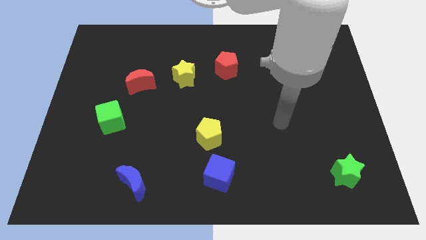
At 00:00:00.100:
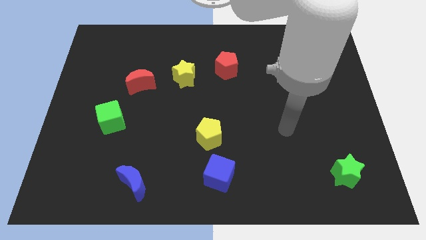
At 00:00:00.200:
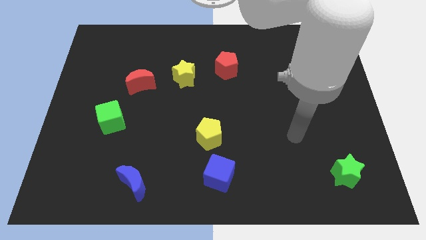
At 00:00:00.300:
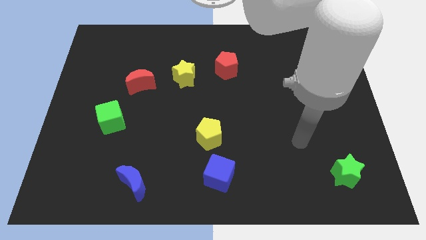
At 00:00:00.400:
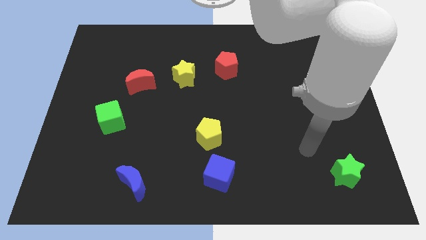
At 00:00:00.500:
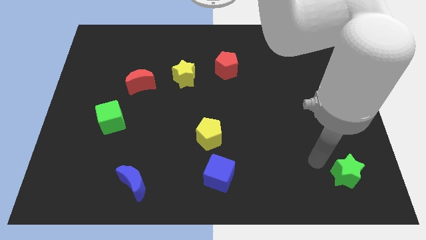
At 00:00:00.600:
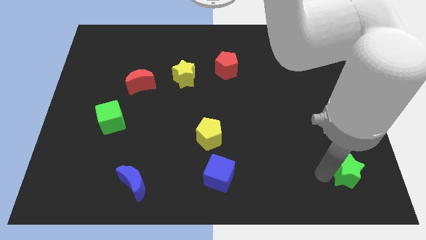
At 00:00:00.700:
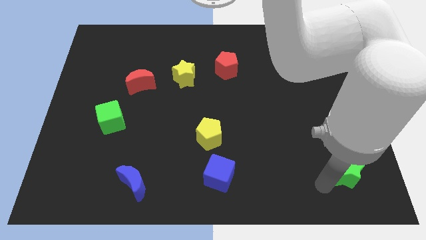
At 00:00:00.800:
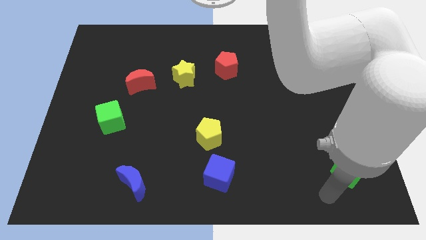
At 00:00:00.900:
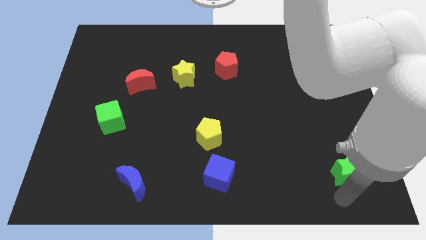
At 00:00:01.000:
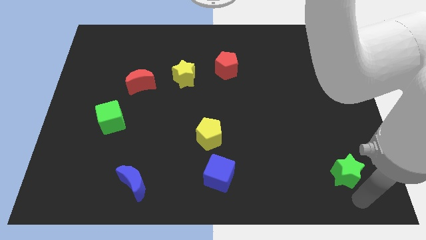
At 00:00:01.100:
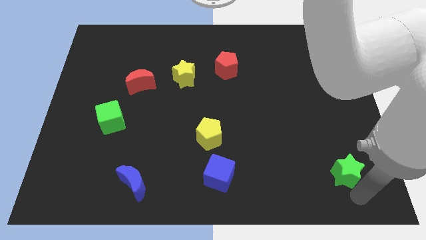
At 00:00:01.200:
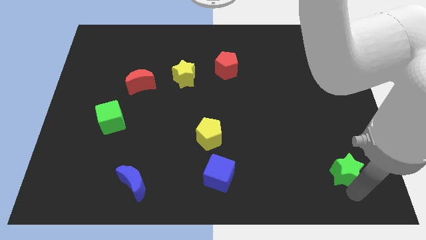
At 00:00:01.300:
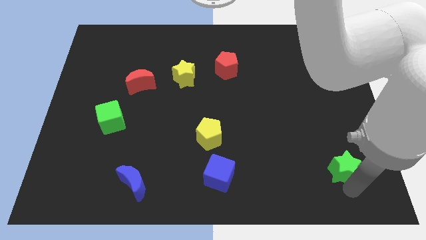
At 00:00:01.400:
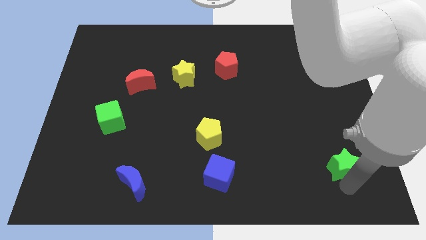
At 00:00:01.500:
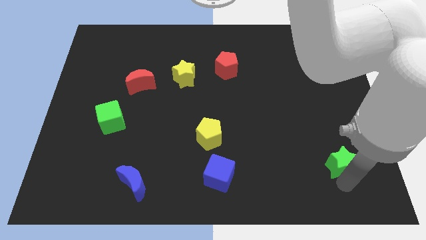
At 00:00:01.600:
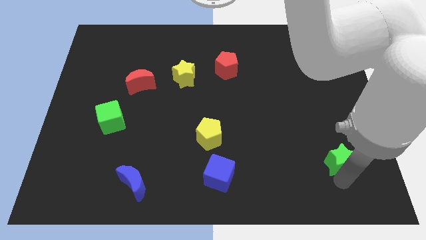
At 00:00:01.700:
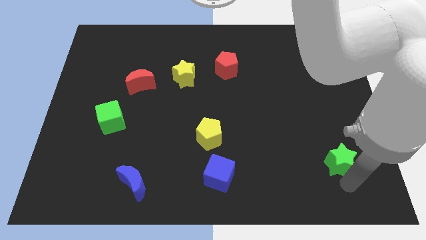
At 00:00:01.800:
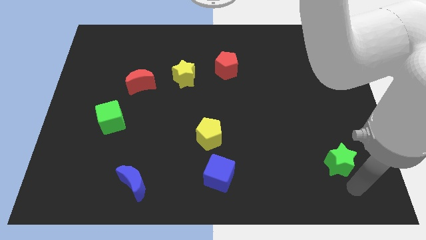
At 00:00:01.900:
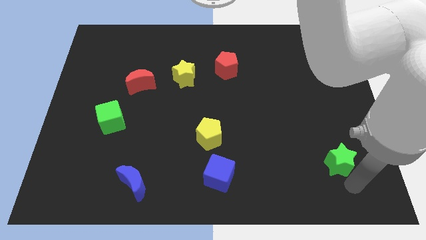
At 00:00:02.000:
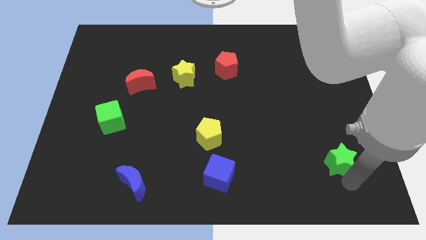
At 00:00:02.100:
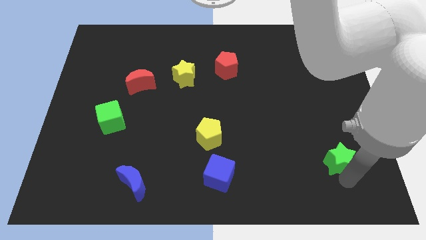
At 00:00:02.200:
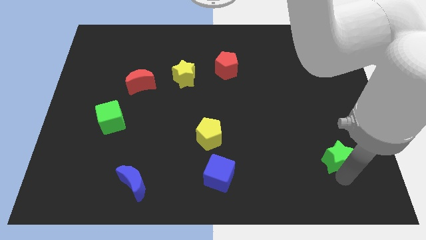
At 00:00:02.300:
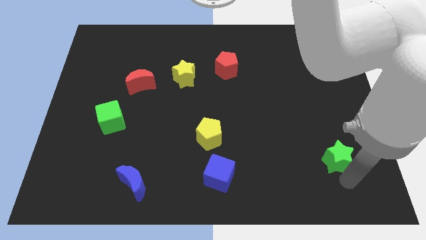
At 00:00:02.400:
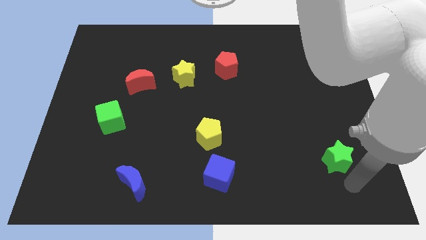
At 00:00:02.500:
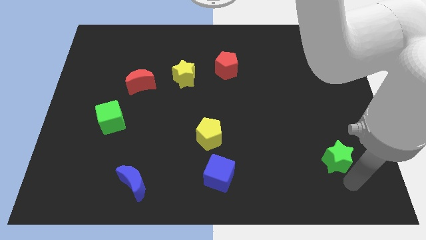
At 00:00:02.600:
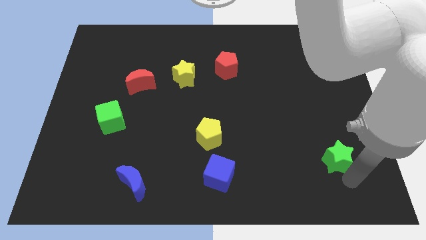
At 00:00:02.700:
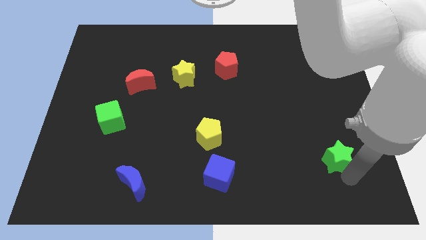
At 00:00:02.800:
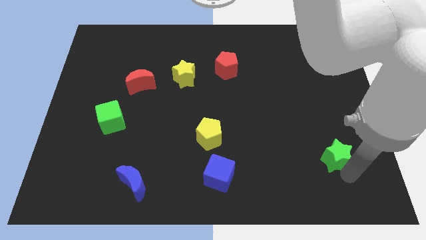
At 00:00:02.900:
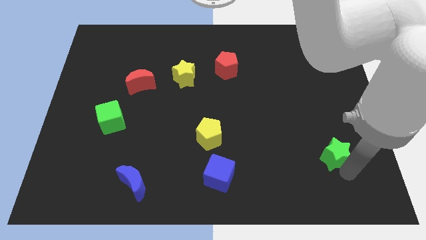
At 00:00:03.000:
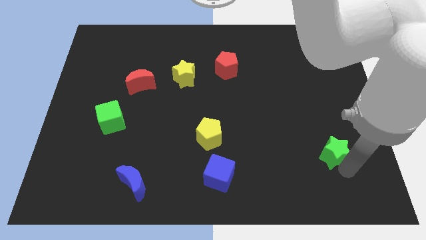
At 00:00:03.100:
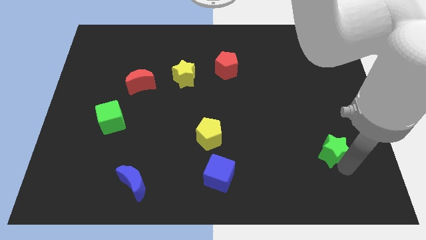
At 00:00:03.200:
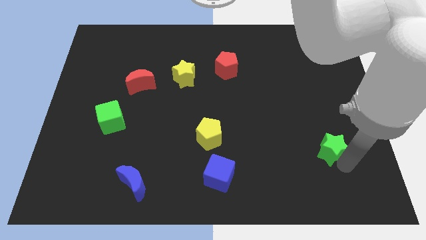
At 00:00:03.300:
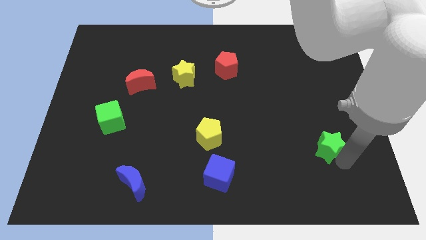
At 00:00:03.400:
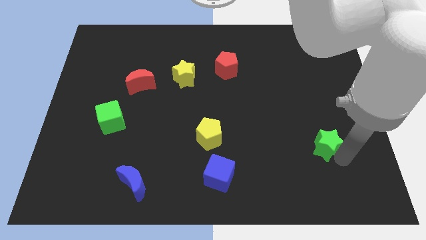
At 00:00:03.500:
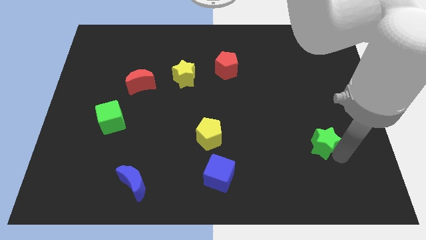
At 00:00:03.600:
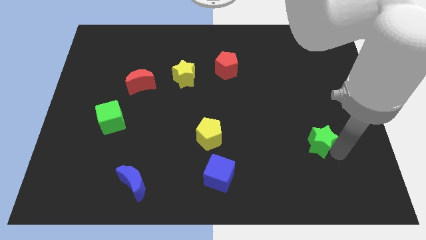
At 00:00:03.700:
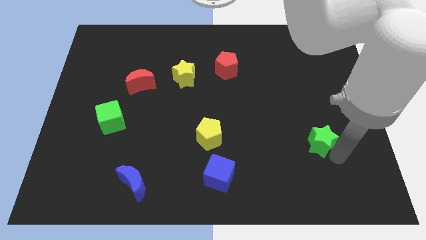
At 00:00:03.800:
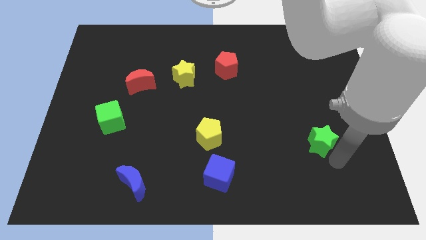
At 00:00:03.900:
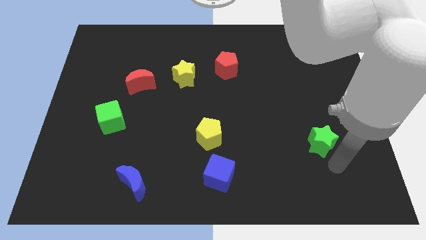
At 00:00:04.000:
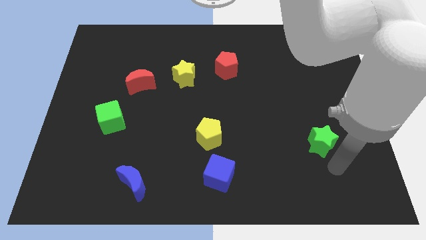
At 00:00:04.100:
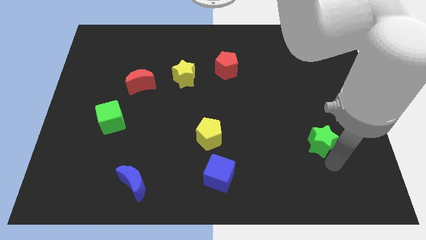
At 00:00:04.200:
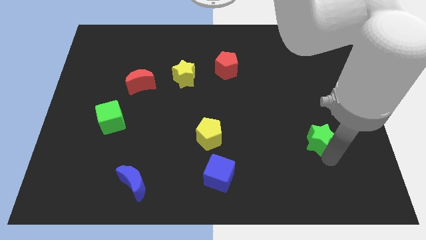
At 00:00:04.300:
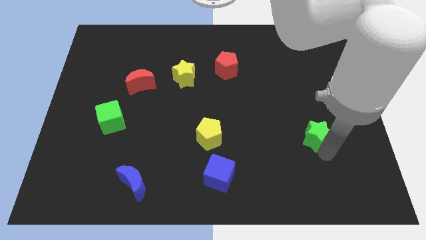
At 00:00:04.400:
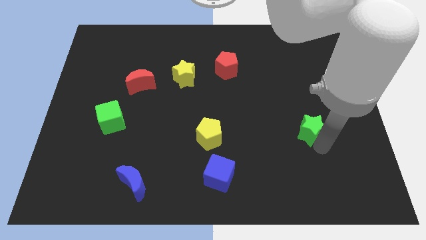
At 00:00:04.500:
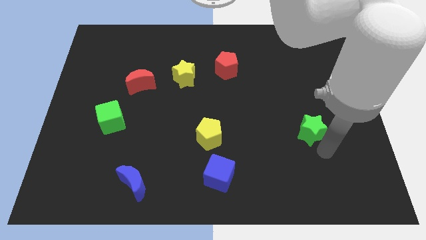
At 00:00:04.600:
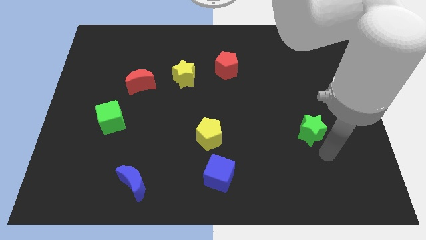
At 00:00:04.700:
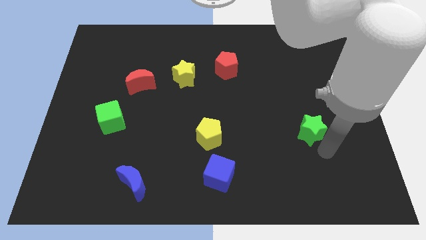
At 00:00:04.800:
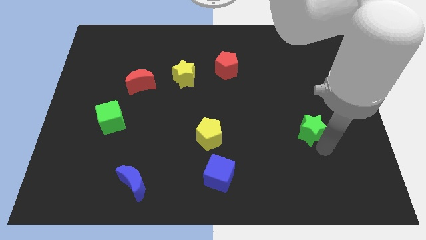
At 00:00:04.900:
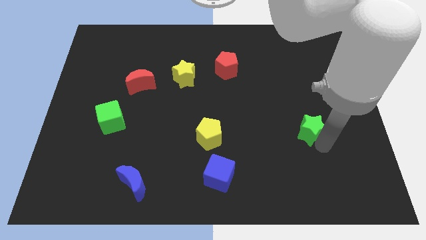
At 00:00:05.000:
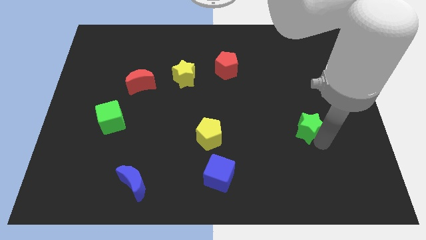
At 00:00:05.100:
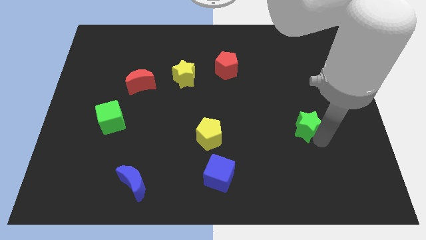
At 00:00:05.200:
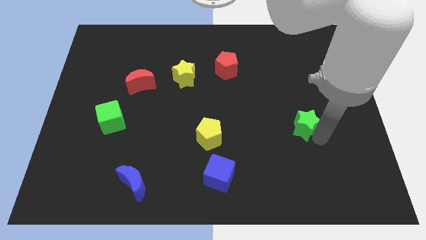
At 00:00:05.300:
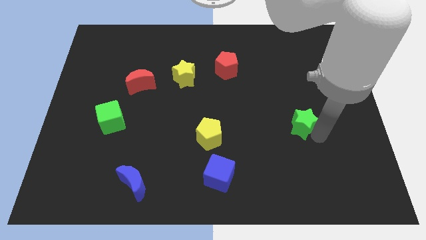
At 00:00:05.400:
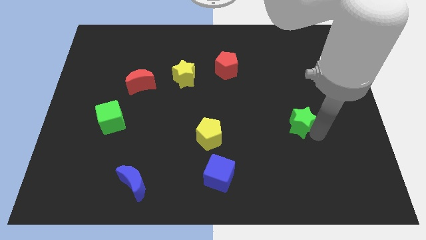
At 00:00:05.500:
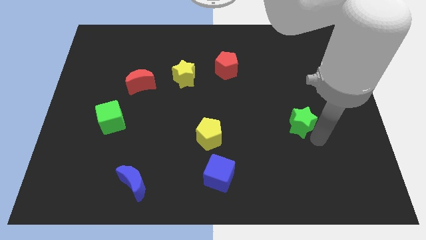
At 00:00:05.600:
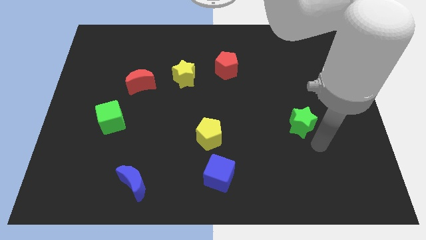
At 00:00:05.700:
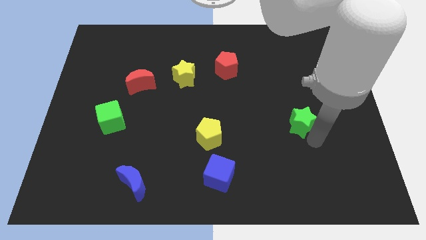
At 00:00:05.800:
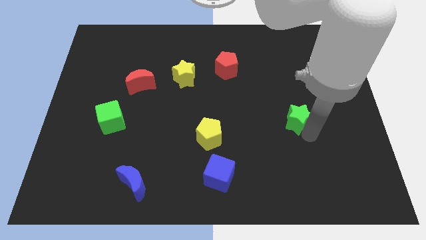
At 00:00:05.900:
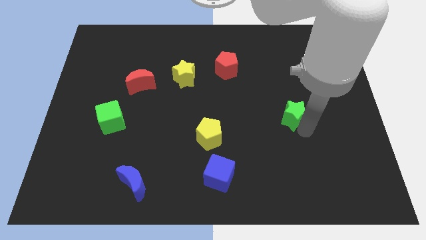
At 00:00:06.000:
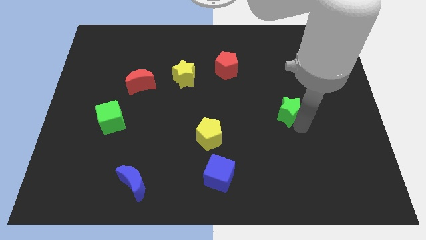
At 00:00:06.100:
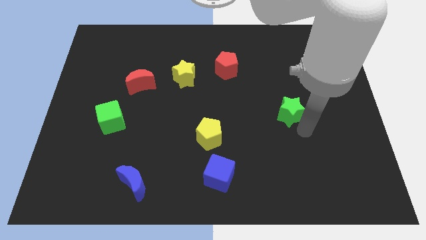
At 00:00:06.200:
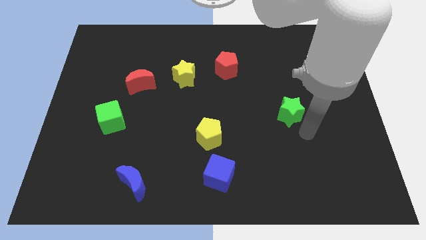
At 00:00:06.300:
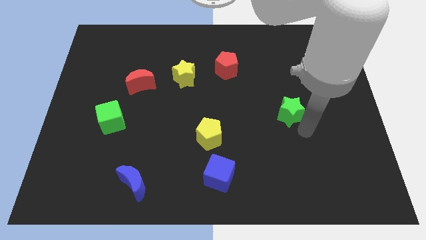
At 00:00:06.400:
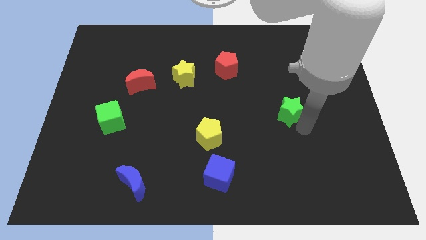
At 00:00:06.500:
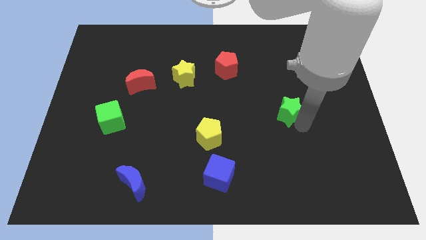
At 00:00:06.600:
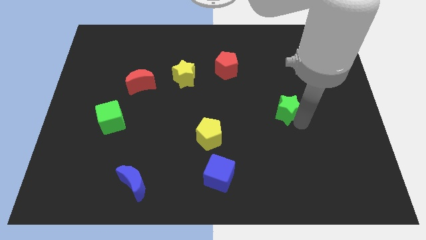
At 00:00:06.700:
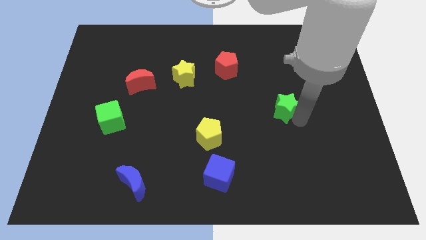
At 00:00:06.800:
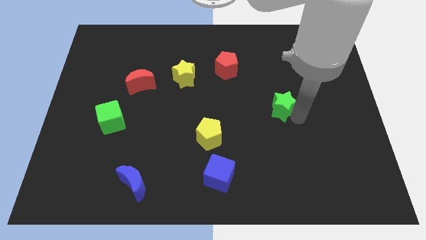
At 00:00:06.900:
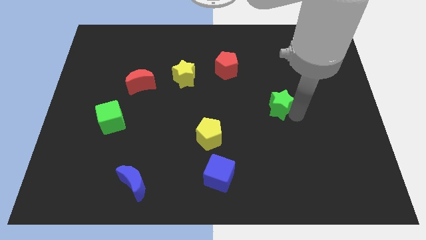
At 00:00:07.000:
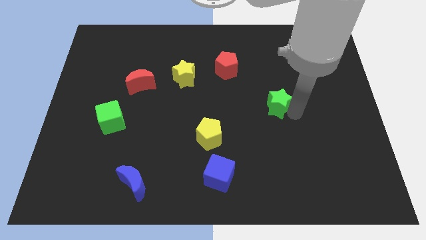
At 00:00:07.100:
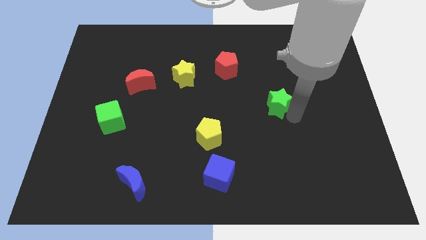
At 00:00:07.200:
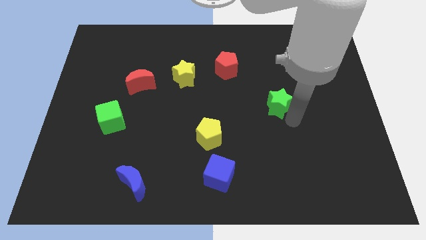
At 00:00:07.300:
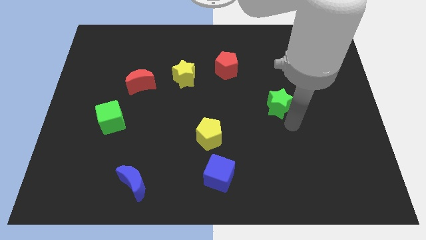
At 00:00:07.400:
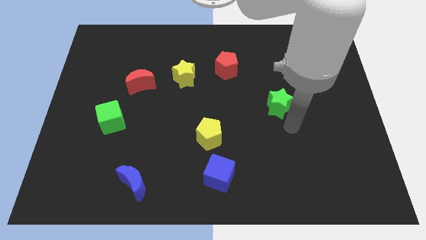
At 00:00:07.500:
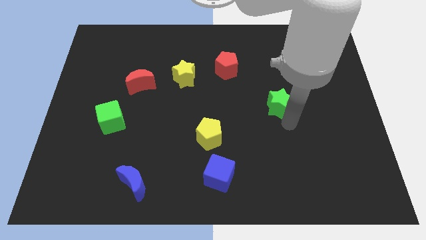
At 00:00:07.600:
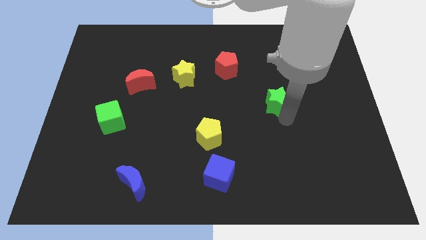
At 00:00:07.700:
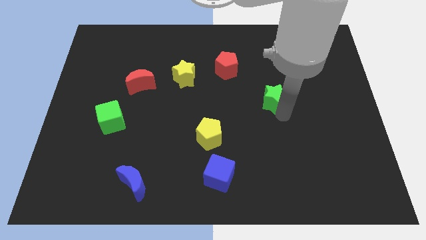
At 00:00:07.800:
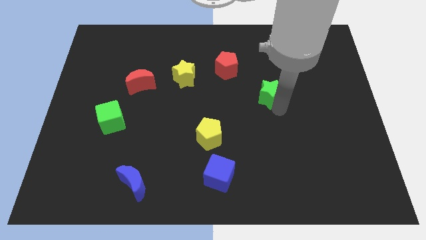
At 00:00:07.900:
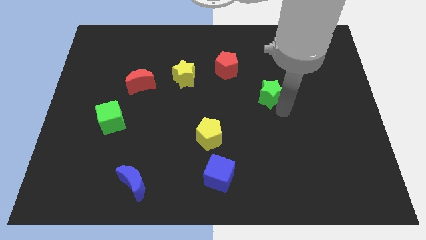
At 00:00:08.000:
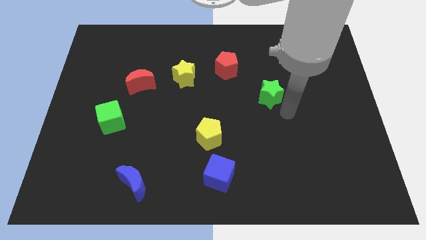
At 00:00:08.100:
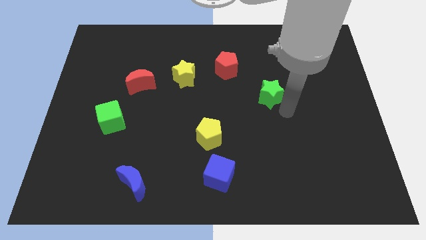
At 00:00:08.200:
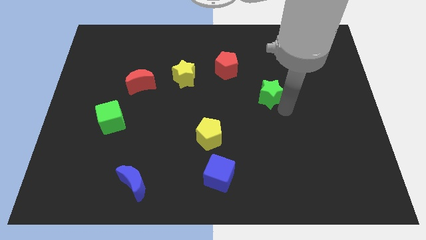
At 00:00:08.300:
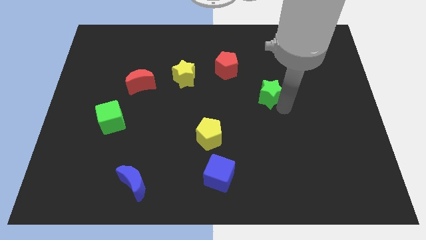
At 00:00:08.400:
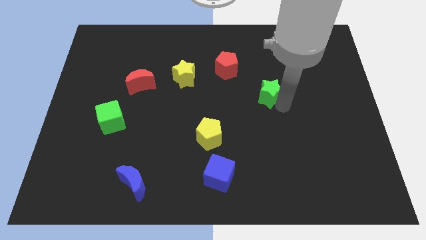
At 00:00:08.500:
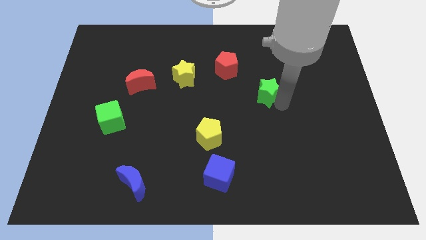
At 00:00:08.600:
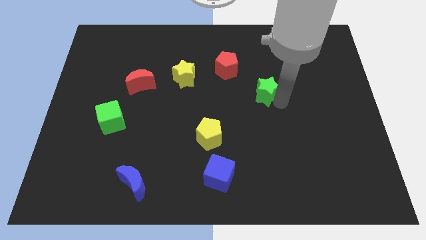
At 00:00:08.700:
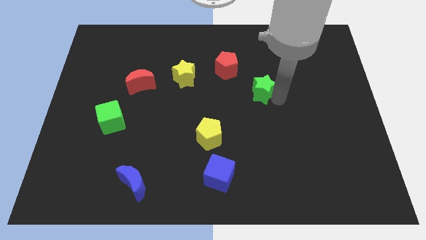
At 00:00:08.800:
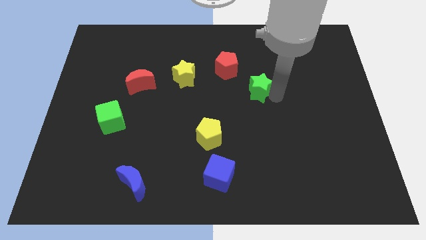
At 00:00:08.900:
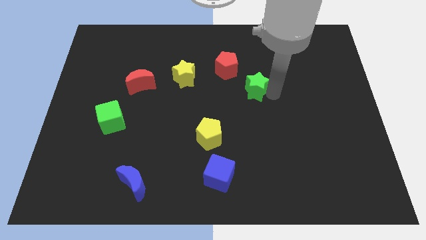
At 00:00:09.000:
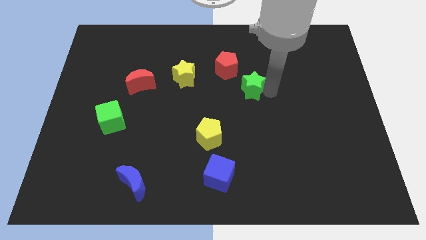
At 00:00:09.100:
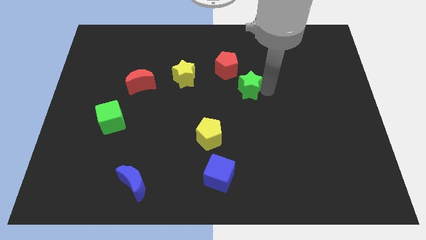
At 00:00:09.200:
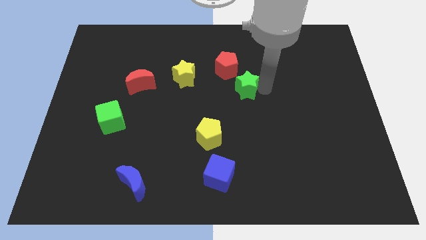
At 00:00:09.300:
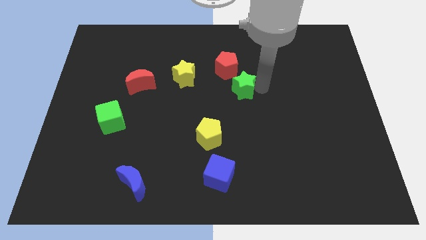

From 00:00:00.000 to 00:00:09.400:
put the green star just right of the yellow star
